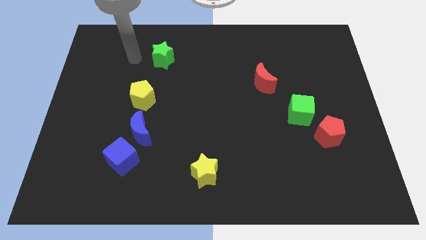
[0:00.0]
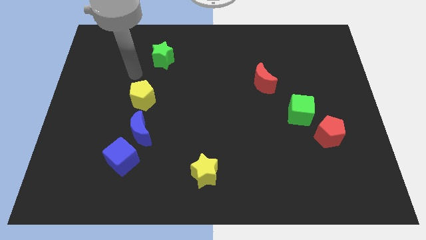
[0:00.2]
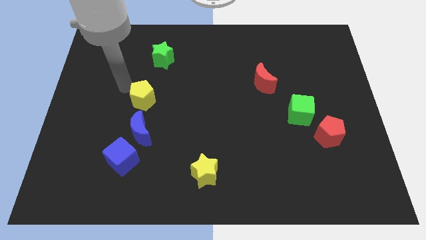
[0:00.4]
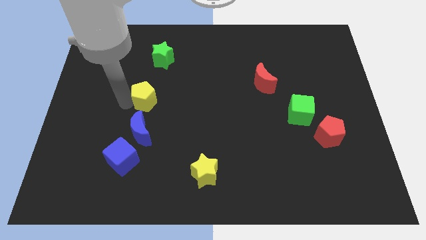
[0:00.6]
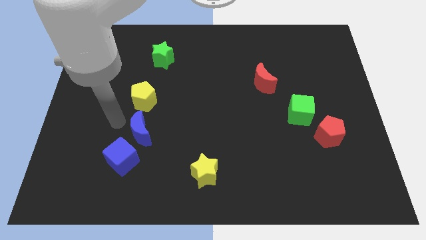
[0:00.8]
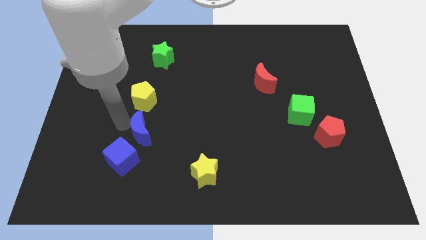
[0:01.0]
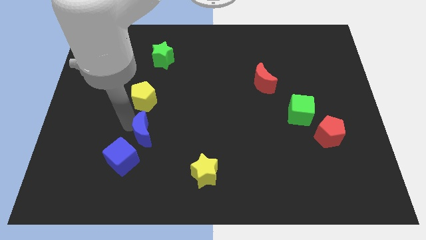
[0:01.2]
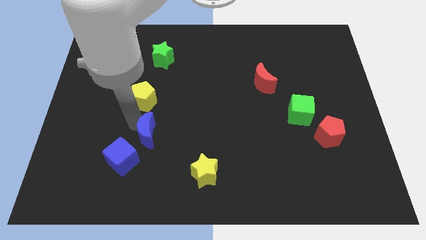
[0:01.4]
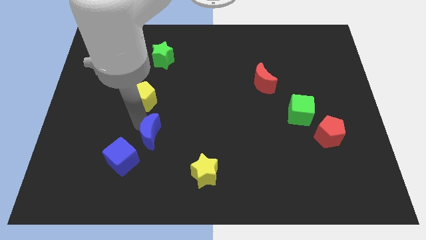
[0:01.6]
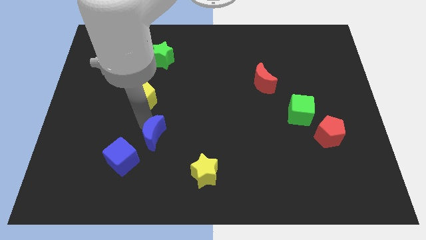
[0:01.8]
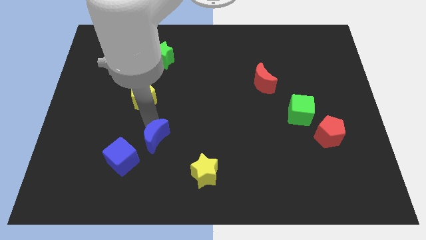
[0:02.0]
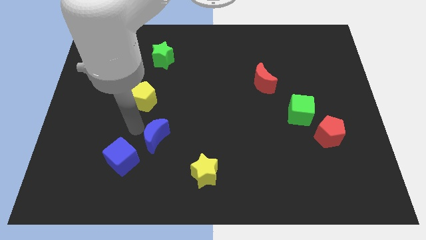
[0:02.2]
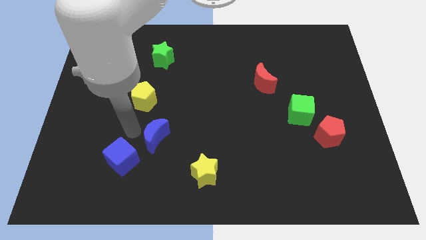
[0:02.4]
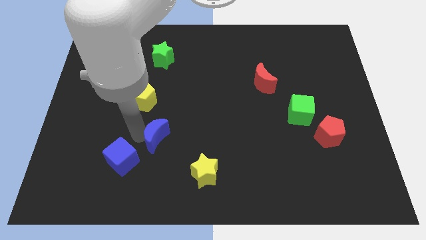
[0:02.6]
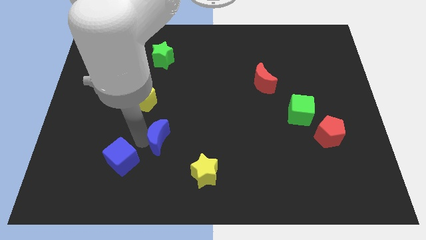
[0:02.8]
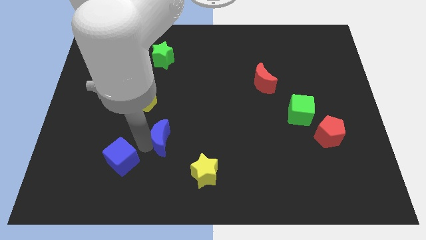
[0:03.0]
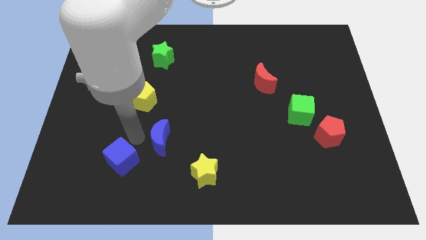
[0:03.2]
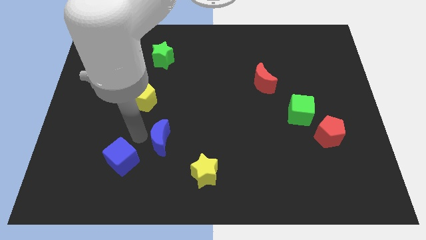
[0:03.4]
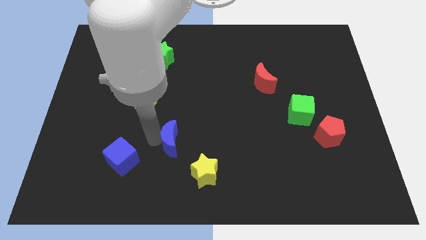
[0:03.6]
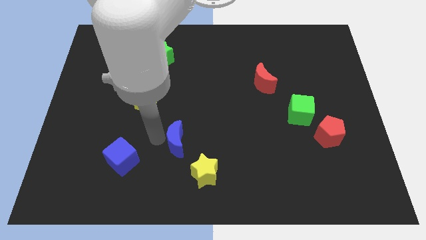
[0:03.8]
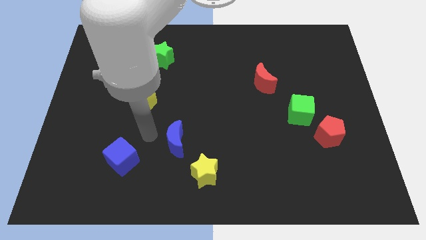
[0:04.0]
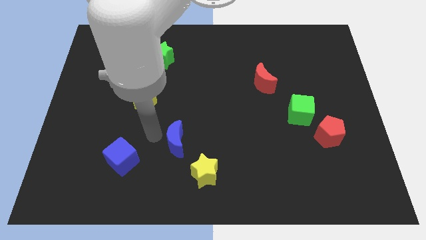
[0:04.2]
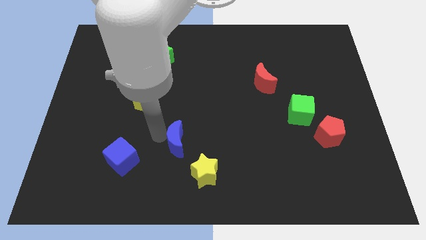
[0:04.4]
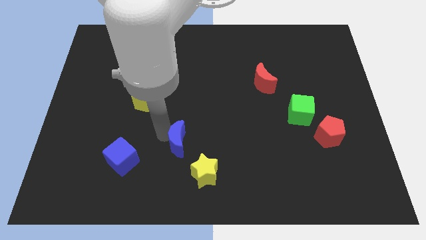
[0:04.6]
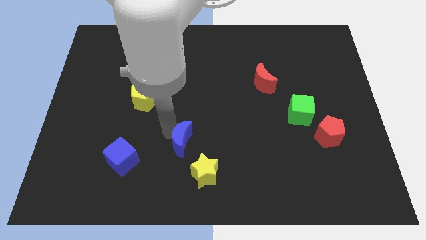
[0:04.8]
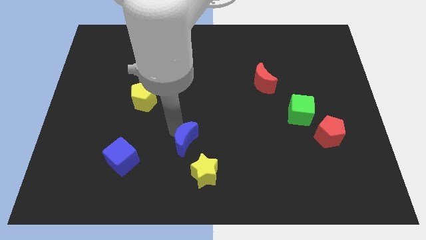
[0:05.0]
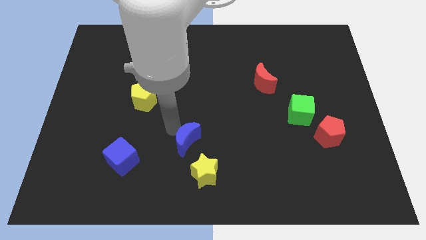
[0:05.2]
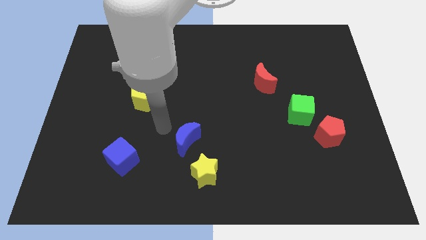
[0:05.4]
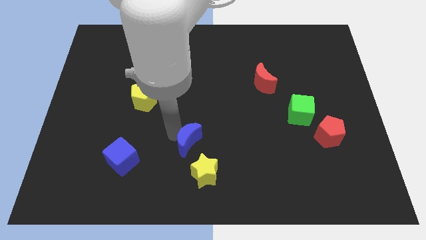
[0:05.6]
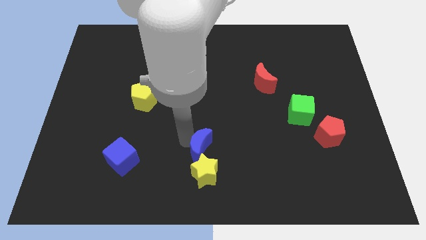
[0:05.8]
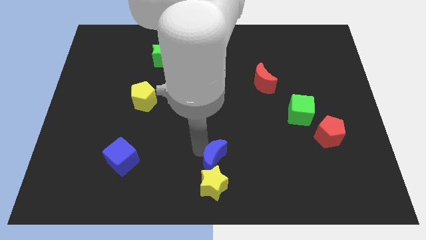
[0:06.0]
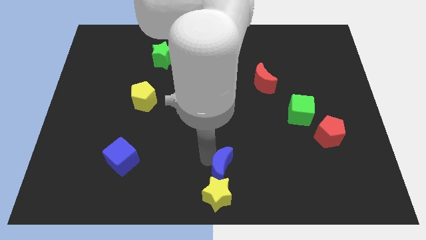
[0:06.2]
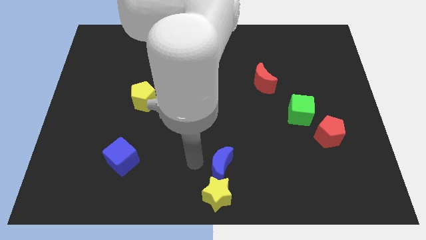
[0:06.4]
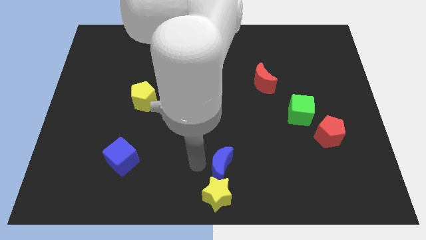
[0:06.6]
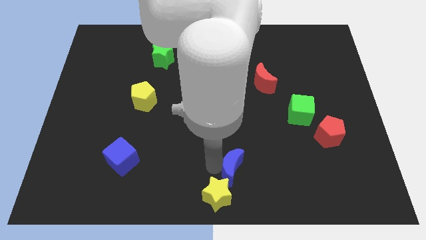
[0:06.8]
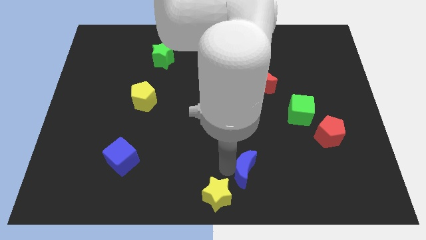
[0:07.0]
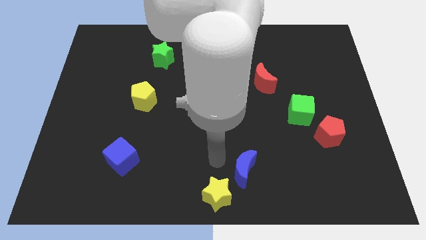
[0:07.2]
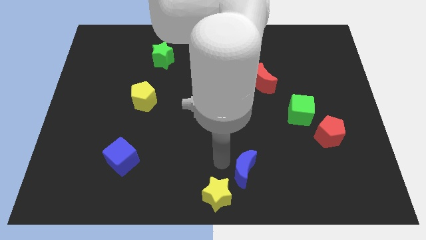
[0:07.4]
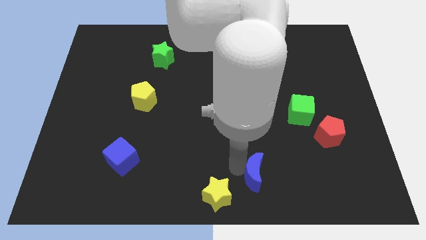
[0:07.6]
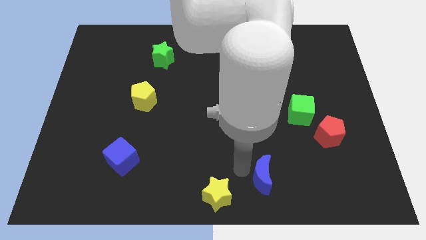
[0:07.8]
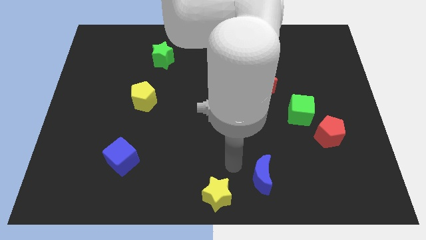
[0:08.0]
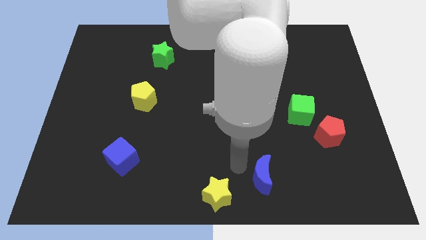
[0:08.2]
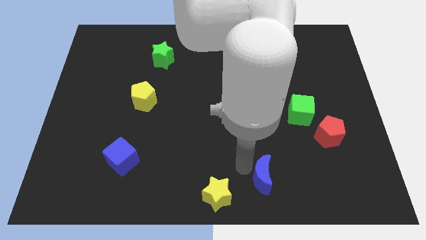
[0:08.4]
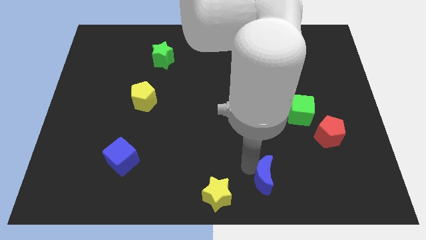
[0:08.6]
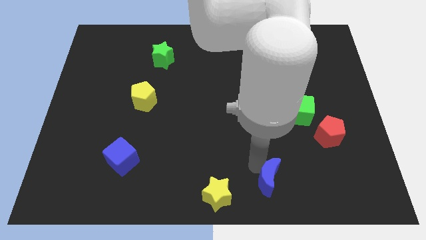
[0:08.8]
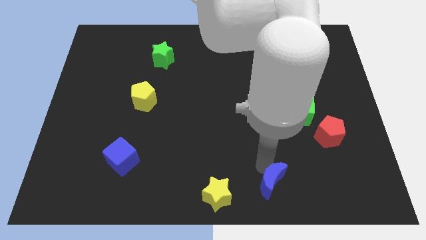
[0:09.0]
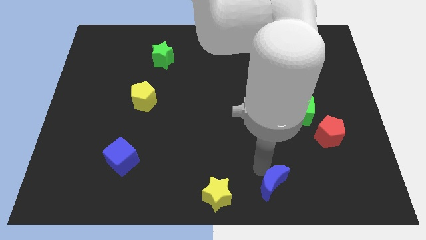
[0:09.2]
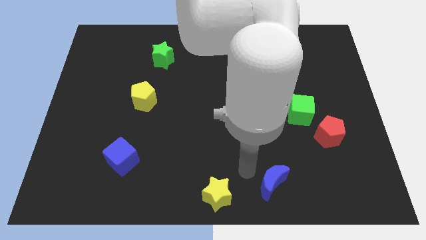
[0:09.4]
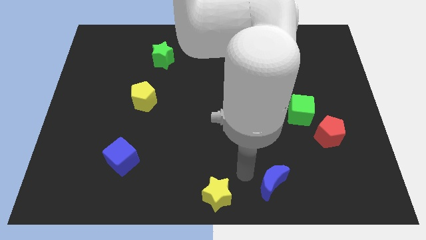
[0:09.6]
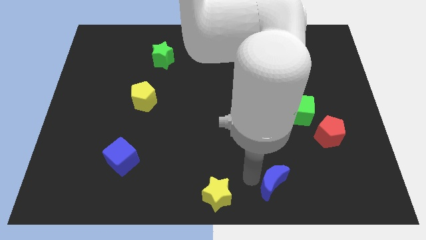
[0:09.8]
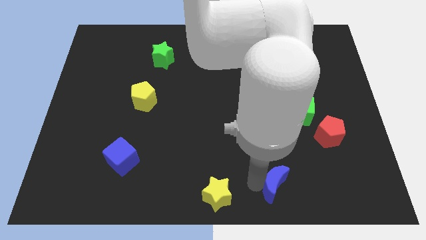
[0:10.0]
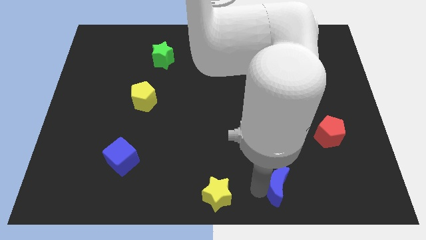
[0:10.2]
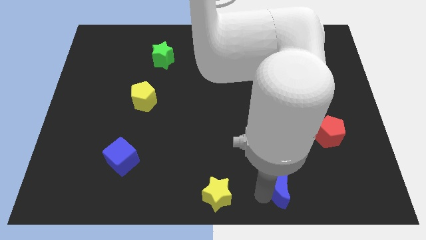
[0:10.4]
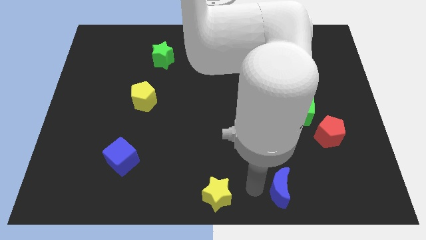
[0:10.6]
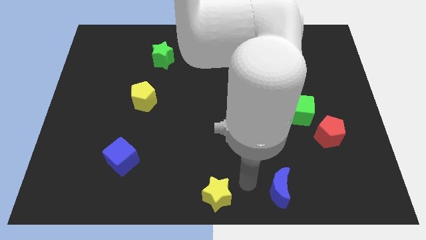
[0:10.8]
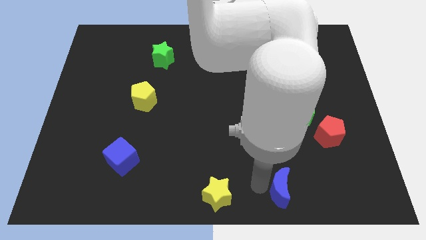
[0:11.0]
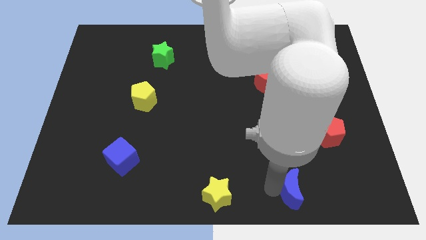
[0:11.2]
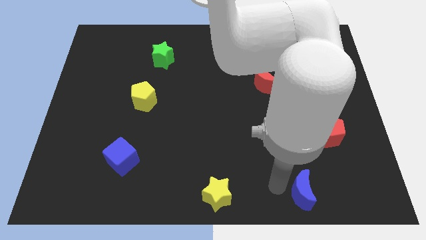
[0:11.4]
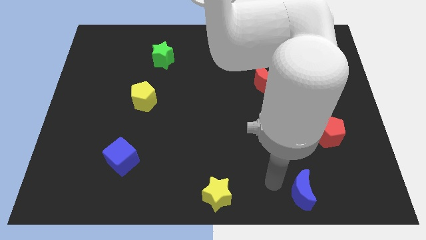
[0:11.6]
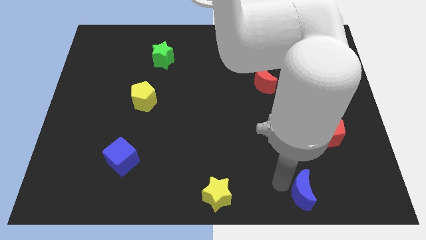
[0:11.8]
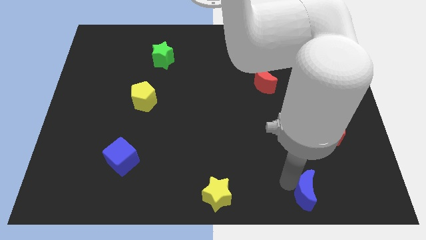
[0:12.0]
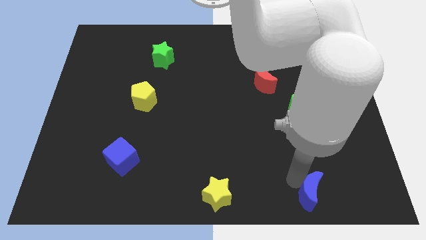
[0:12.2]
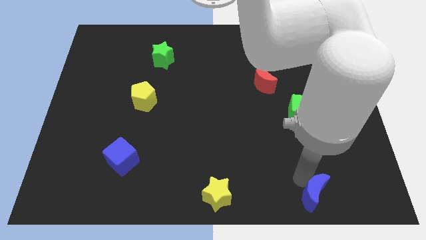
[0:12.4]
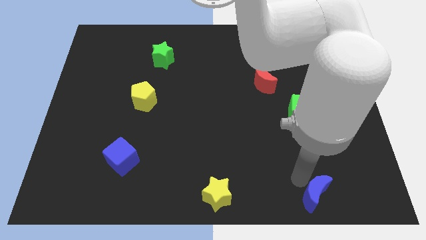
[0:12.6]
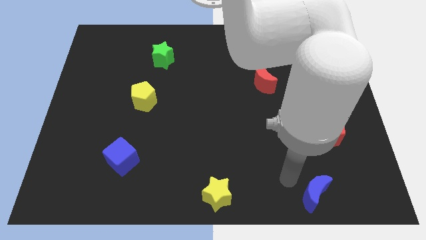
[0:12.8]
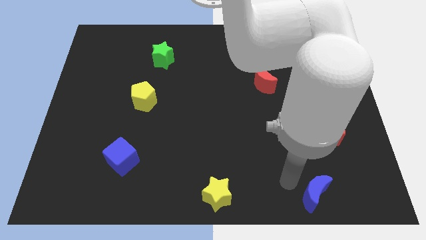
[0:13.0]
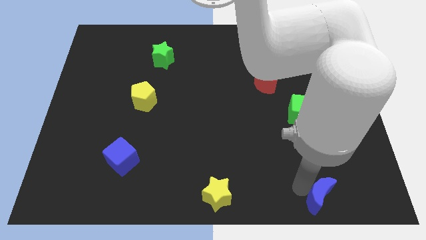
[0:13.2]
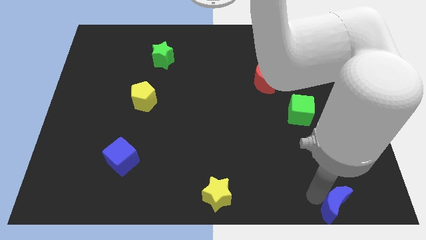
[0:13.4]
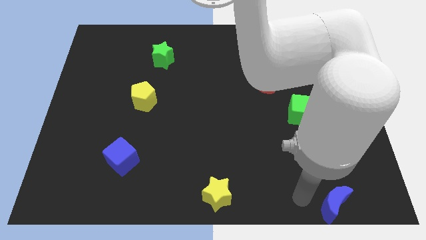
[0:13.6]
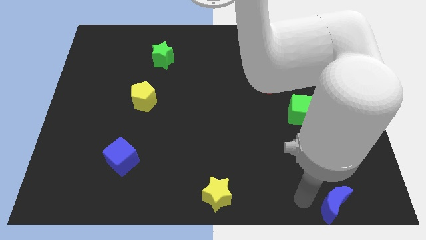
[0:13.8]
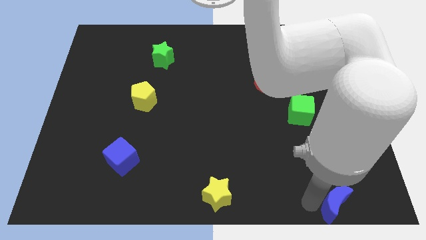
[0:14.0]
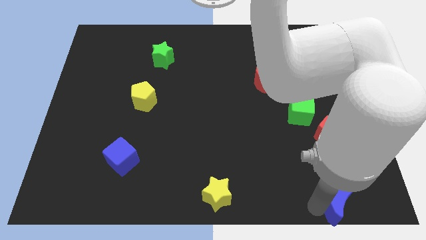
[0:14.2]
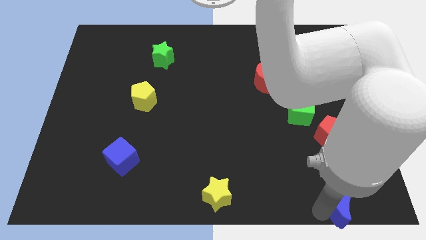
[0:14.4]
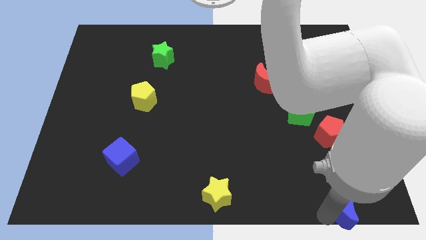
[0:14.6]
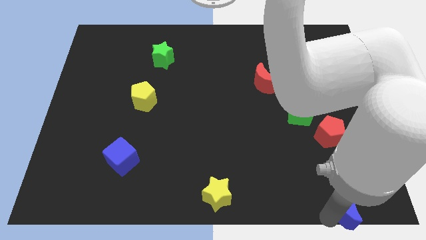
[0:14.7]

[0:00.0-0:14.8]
move the blue moon to the bottom right
